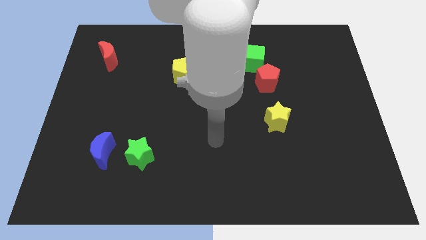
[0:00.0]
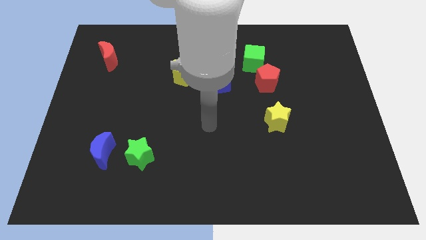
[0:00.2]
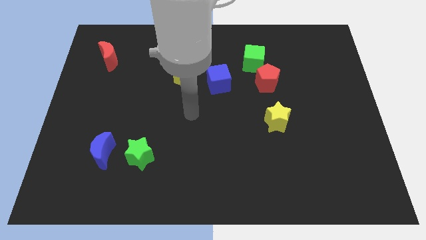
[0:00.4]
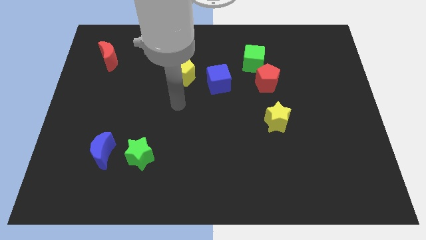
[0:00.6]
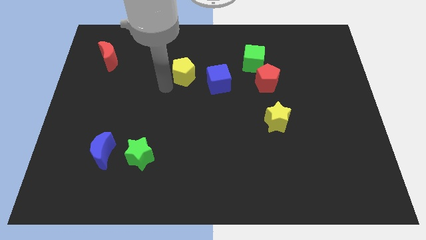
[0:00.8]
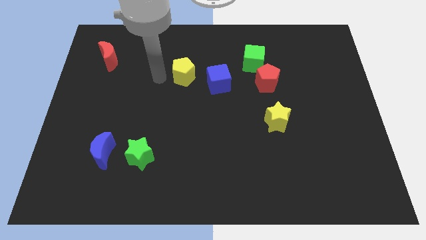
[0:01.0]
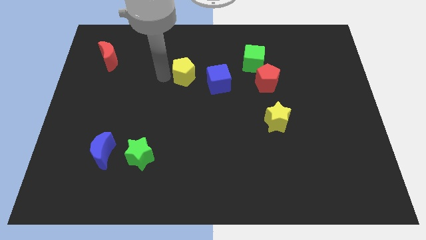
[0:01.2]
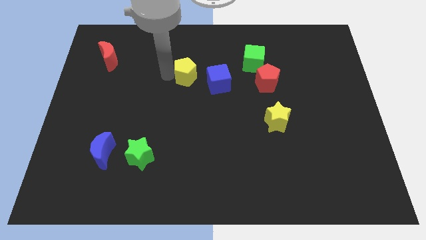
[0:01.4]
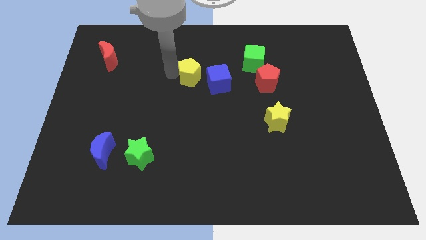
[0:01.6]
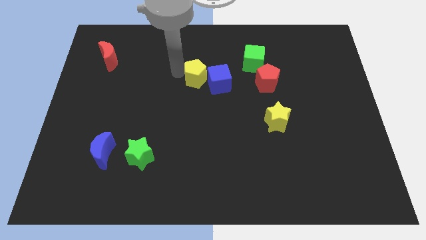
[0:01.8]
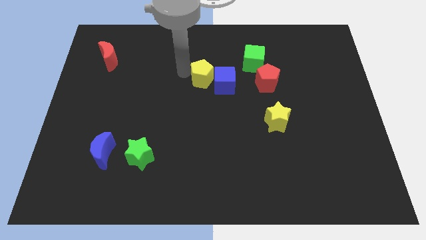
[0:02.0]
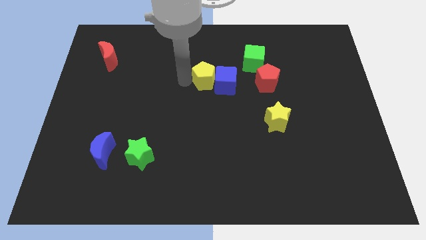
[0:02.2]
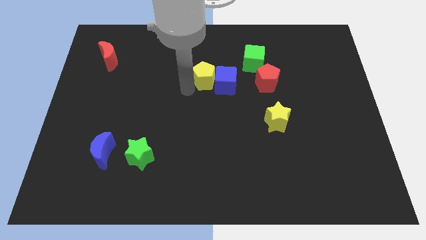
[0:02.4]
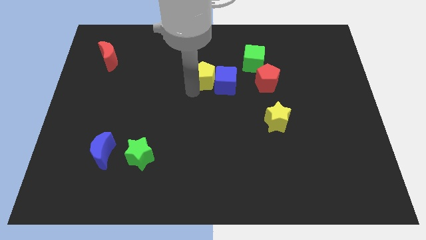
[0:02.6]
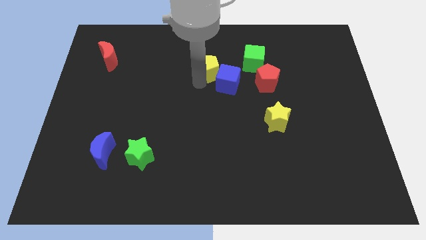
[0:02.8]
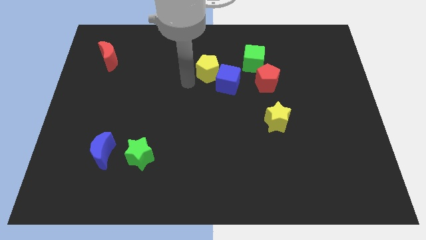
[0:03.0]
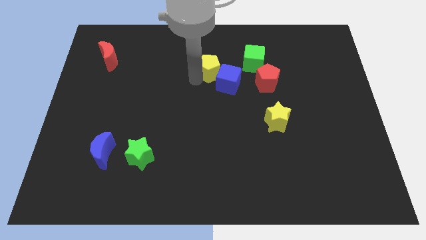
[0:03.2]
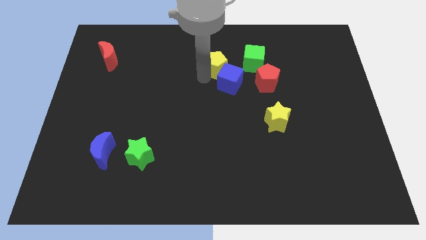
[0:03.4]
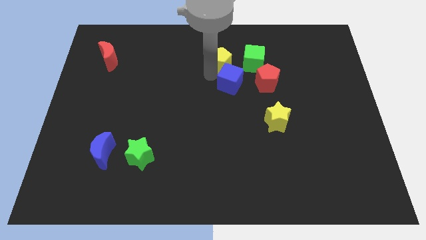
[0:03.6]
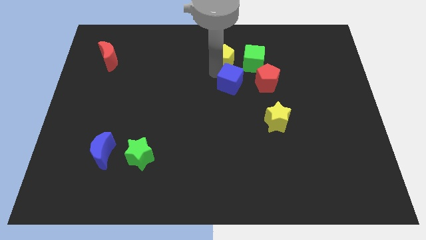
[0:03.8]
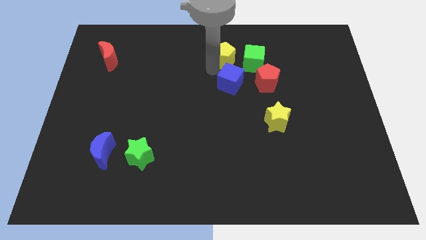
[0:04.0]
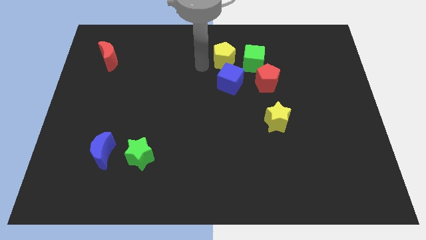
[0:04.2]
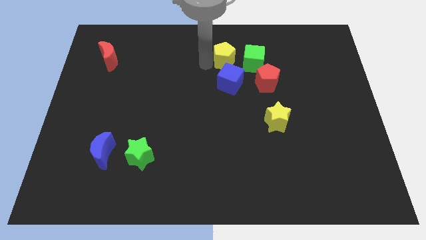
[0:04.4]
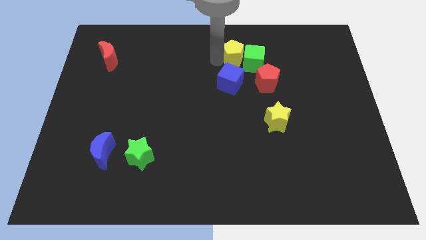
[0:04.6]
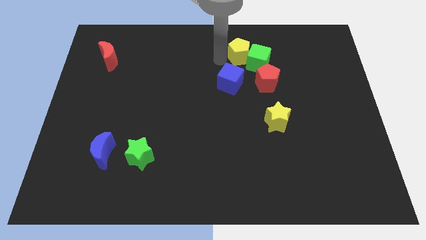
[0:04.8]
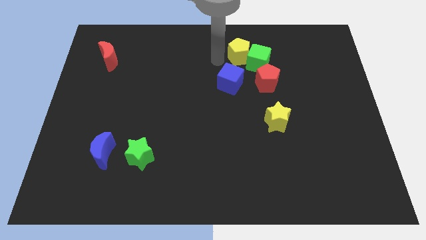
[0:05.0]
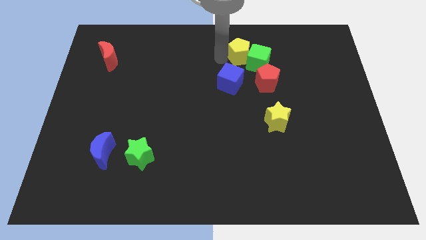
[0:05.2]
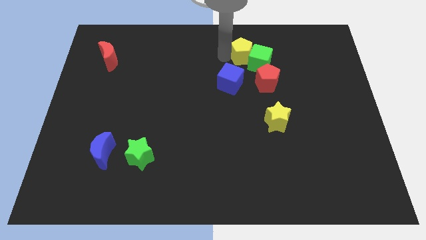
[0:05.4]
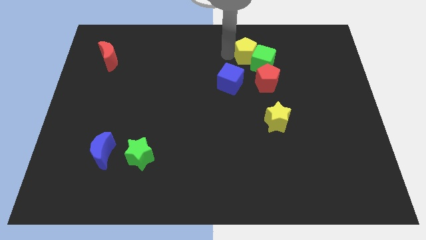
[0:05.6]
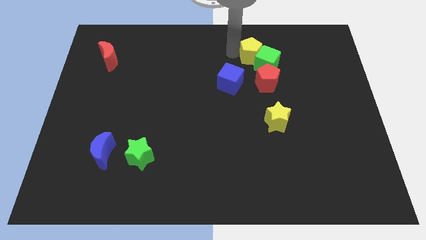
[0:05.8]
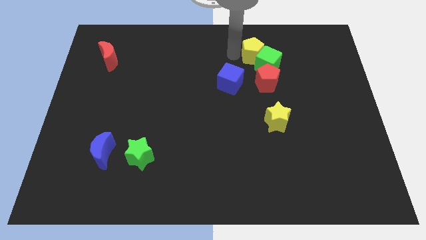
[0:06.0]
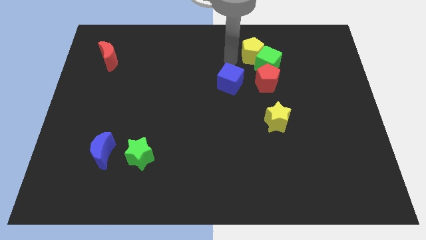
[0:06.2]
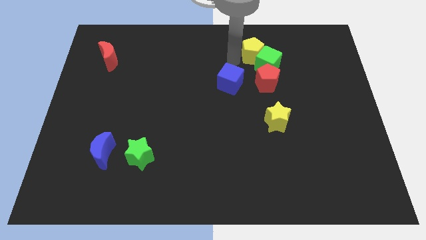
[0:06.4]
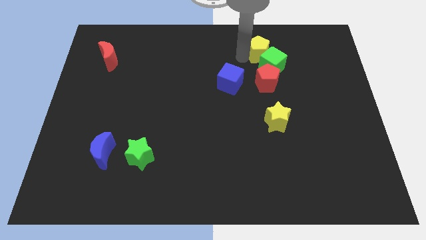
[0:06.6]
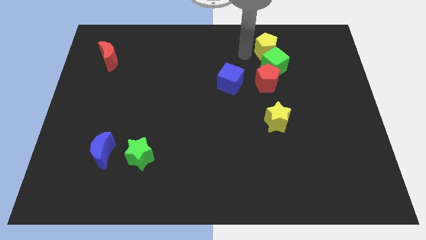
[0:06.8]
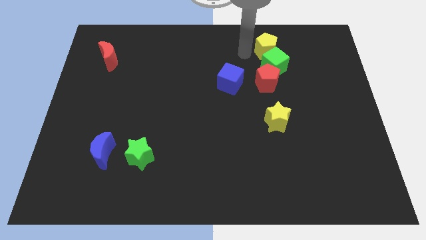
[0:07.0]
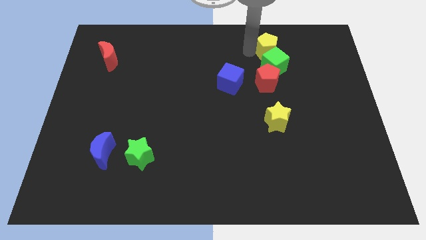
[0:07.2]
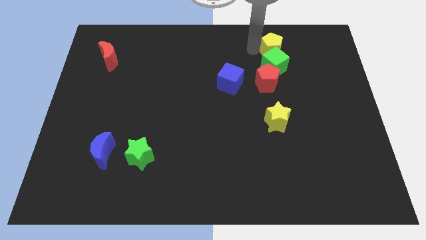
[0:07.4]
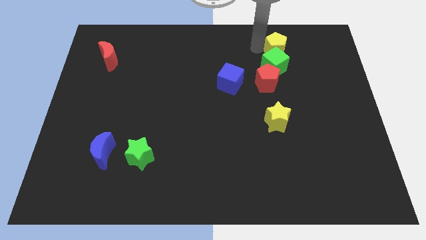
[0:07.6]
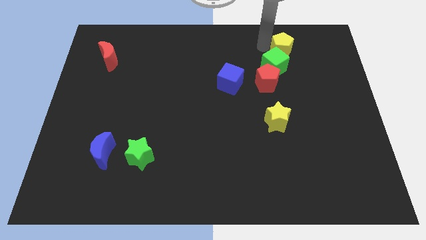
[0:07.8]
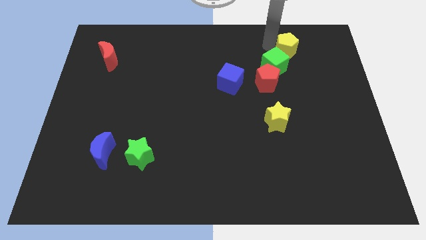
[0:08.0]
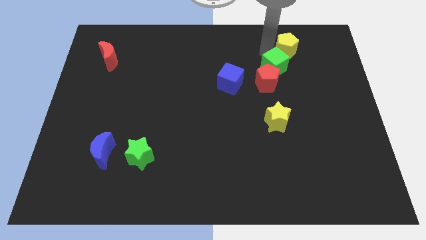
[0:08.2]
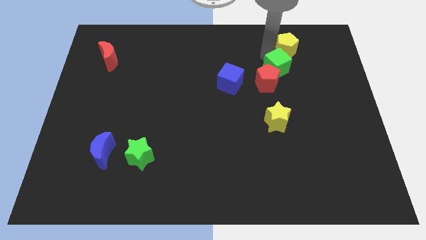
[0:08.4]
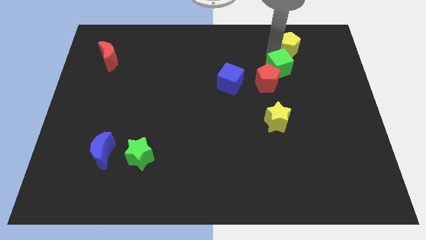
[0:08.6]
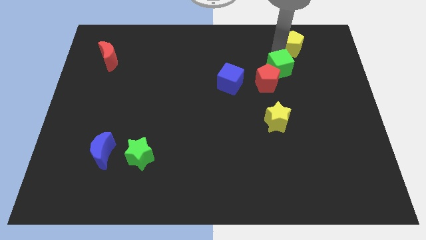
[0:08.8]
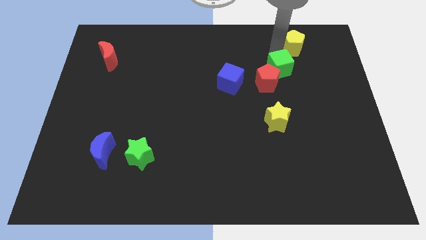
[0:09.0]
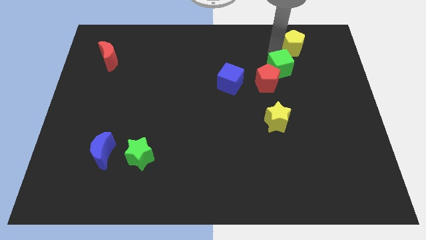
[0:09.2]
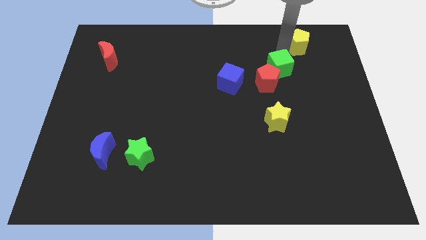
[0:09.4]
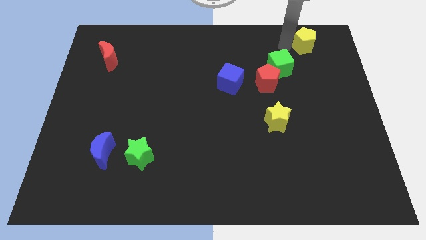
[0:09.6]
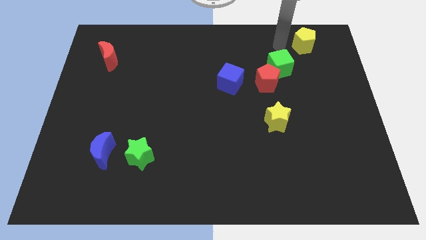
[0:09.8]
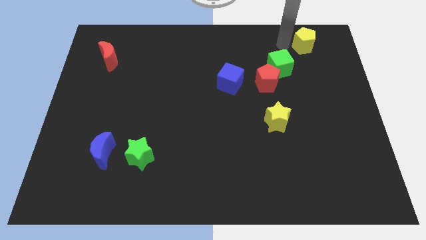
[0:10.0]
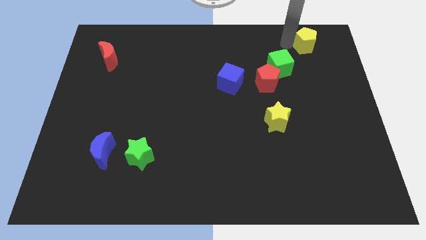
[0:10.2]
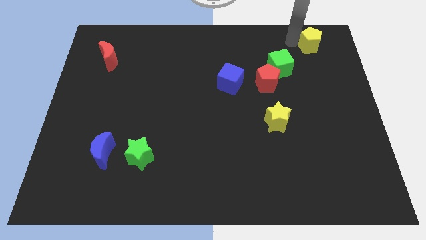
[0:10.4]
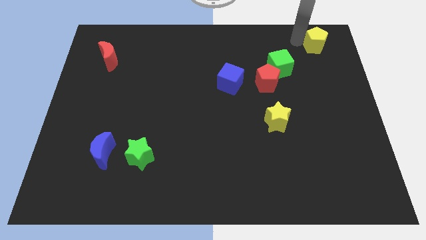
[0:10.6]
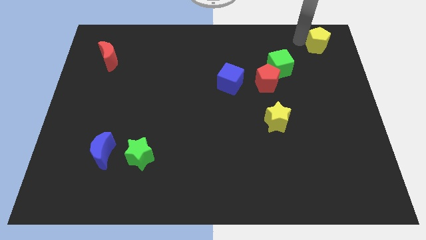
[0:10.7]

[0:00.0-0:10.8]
slide the yellow pentagon to the top right corner

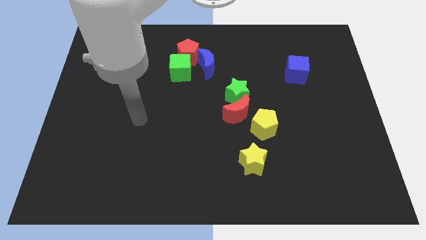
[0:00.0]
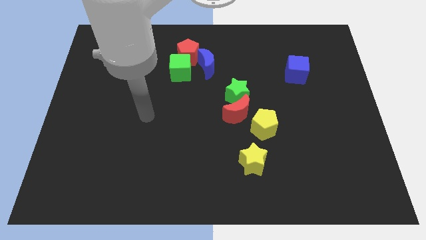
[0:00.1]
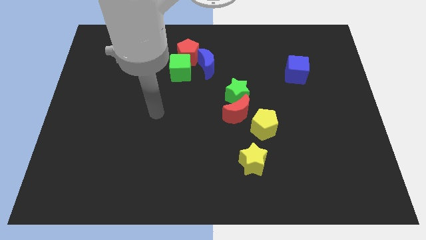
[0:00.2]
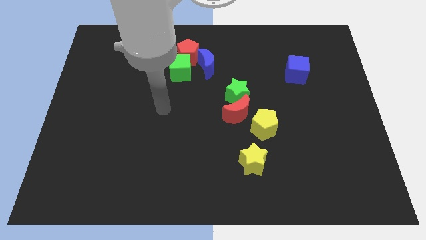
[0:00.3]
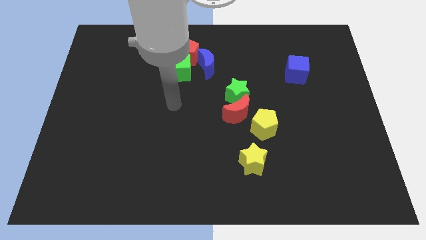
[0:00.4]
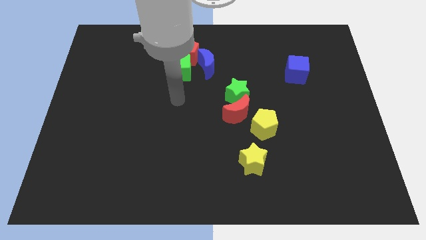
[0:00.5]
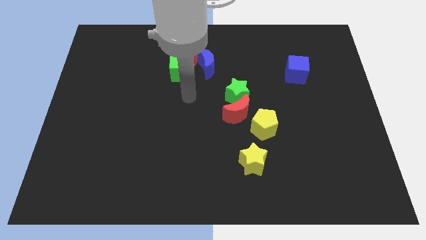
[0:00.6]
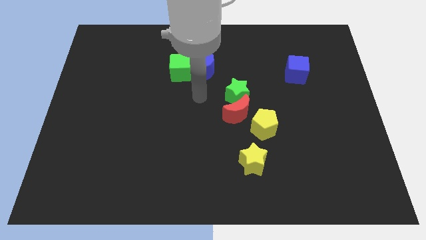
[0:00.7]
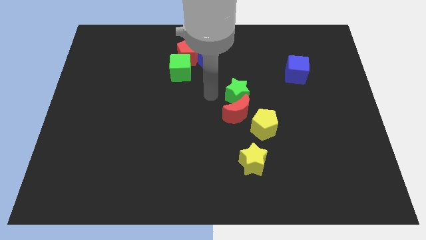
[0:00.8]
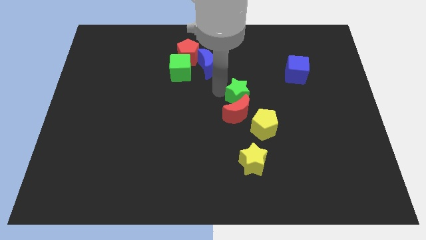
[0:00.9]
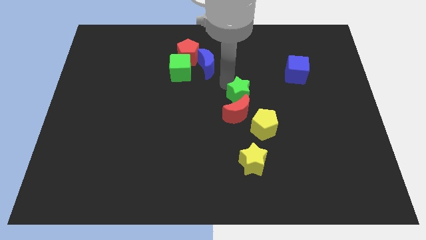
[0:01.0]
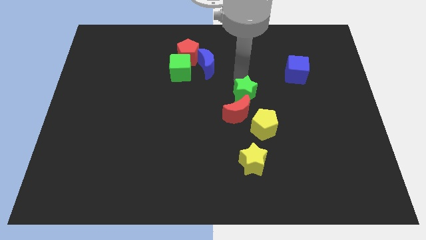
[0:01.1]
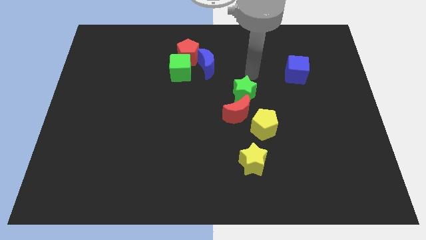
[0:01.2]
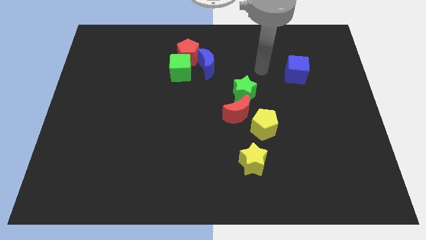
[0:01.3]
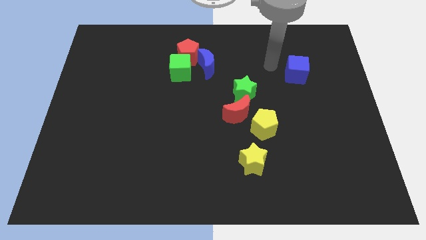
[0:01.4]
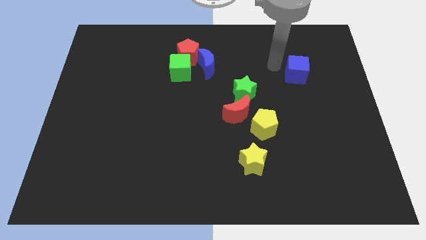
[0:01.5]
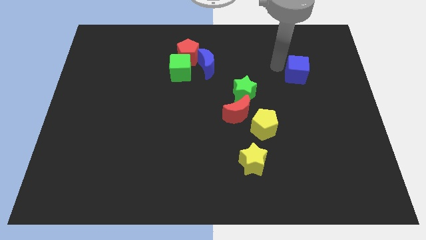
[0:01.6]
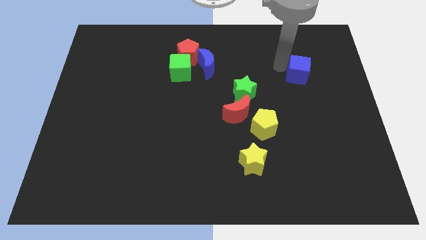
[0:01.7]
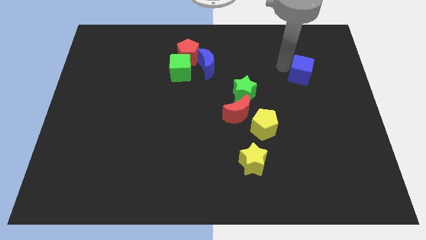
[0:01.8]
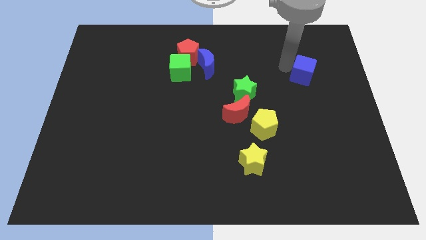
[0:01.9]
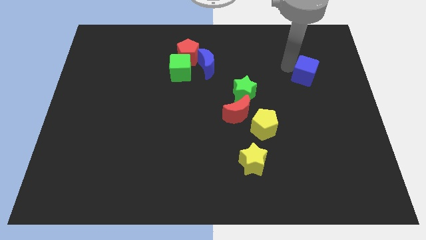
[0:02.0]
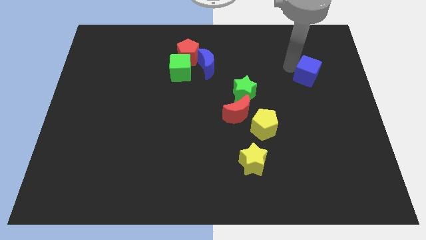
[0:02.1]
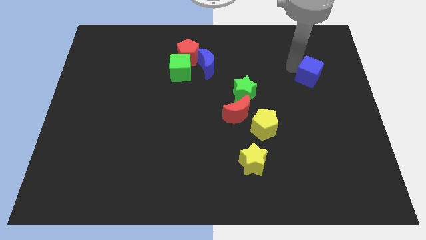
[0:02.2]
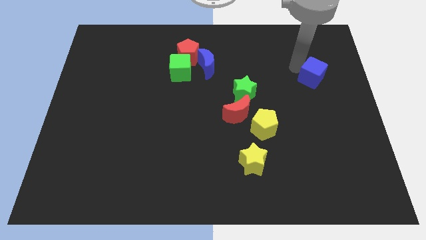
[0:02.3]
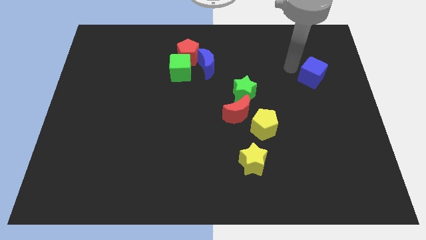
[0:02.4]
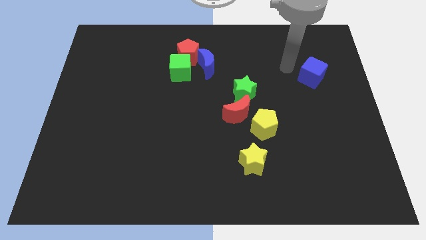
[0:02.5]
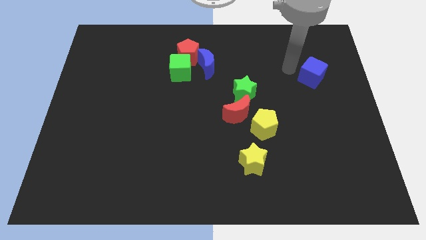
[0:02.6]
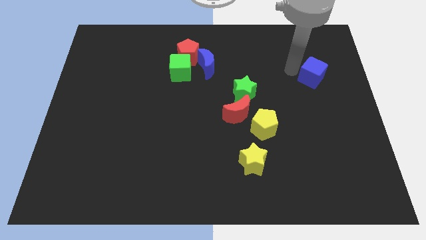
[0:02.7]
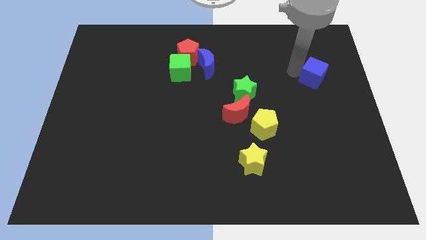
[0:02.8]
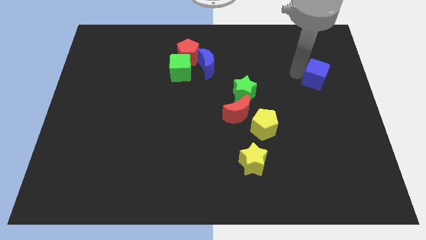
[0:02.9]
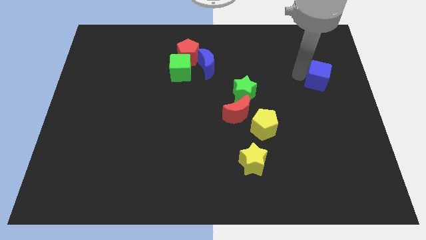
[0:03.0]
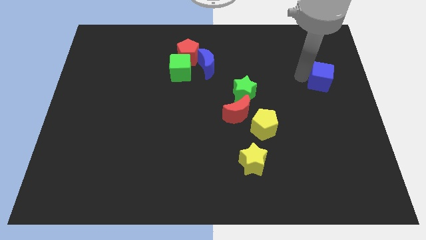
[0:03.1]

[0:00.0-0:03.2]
put the blue cube to the right side
